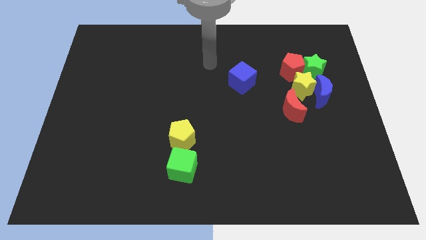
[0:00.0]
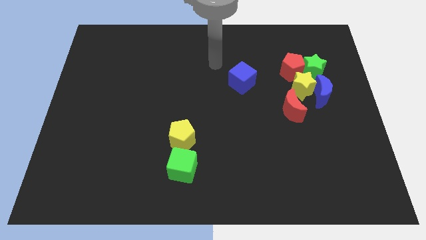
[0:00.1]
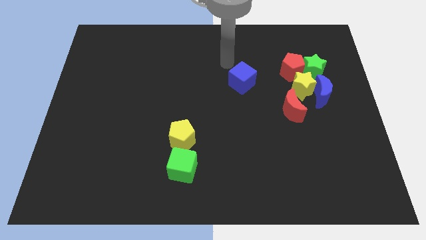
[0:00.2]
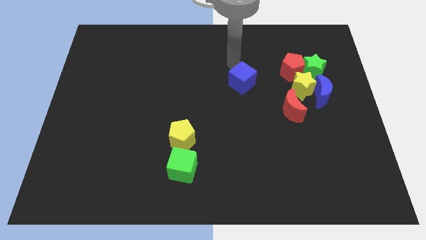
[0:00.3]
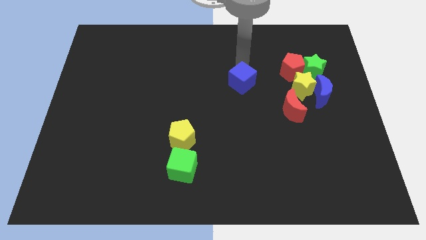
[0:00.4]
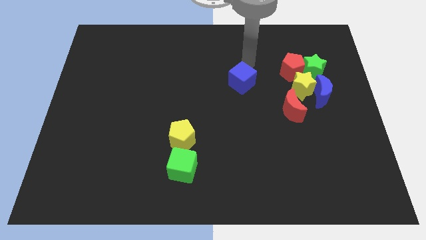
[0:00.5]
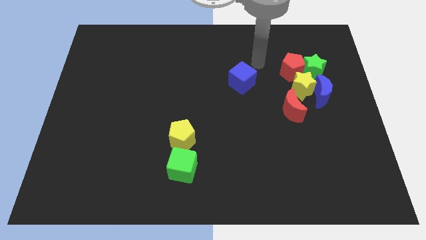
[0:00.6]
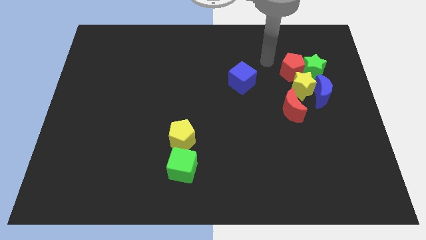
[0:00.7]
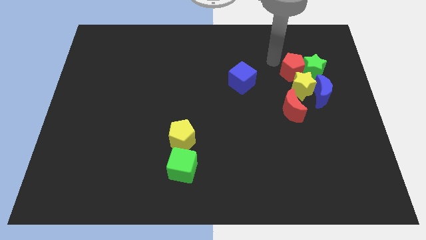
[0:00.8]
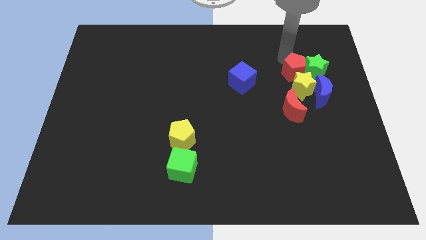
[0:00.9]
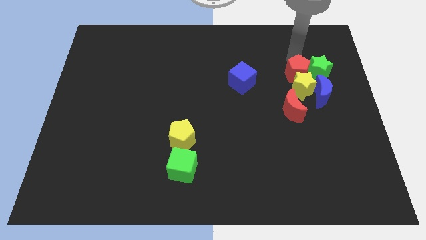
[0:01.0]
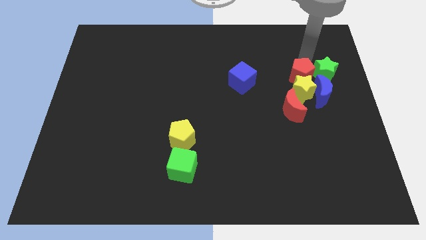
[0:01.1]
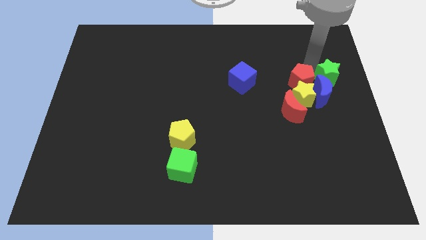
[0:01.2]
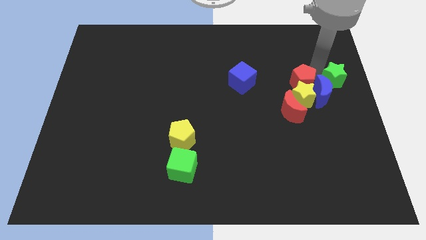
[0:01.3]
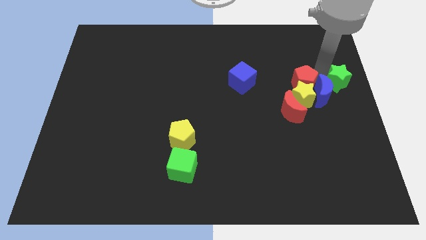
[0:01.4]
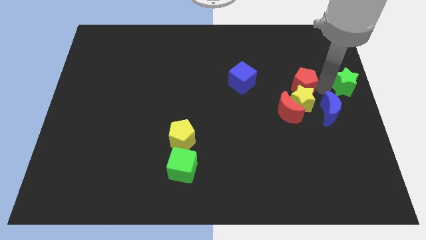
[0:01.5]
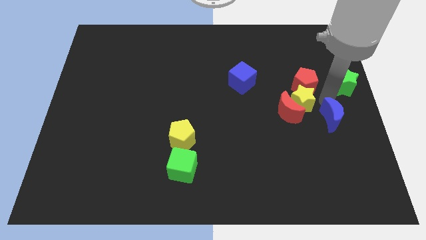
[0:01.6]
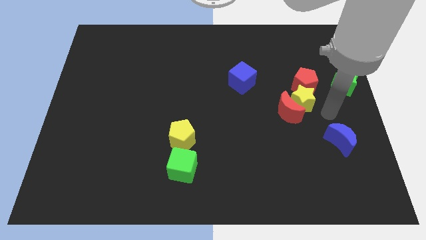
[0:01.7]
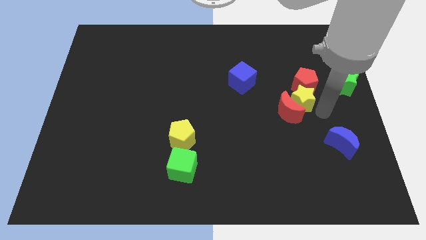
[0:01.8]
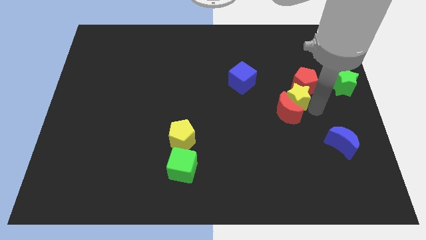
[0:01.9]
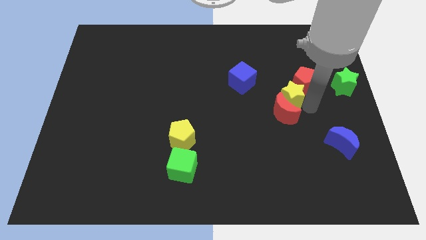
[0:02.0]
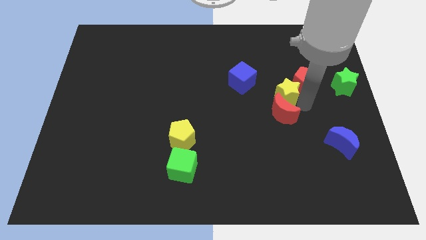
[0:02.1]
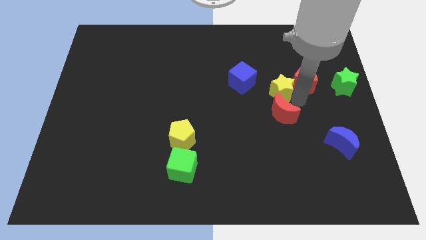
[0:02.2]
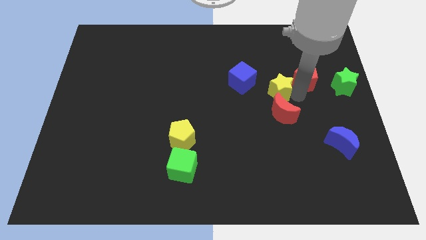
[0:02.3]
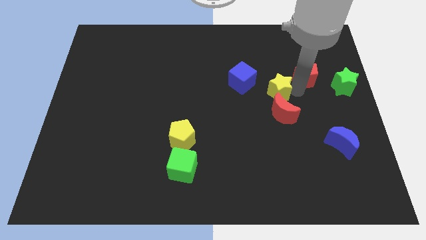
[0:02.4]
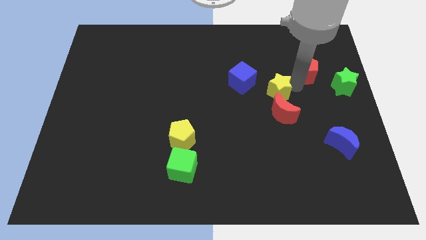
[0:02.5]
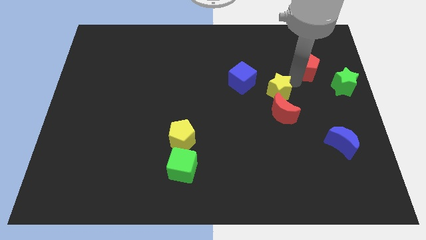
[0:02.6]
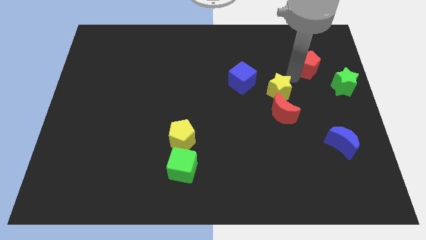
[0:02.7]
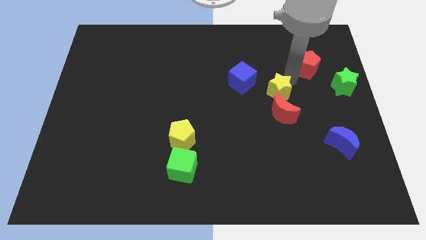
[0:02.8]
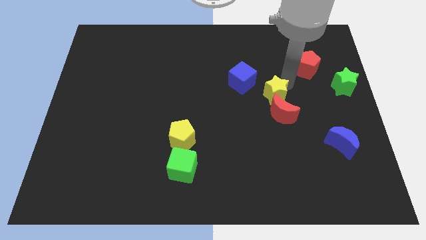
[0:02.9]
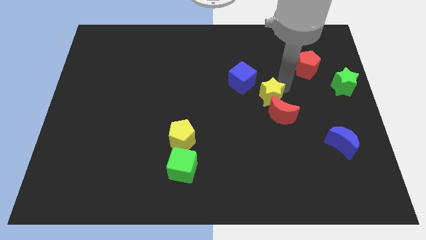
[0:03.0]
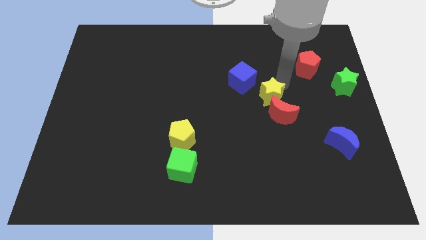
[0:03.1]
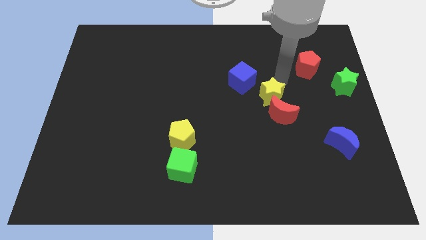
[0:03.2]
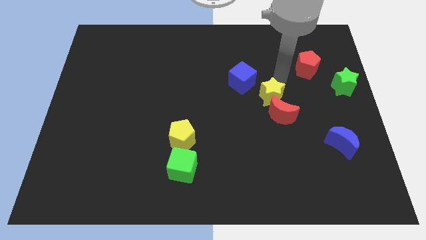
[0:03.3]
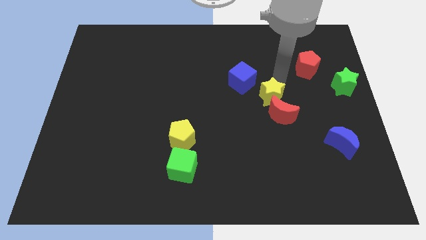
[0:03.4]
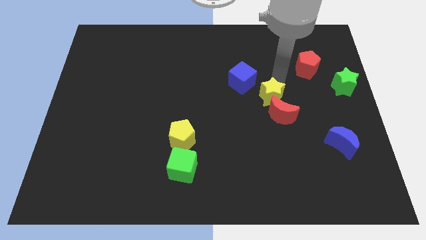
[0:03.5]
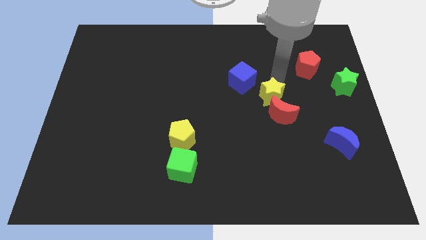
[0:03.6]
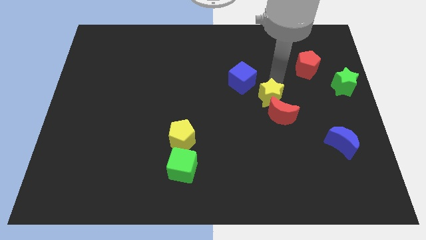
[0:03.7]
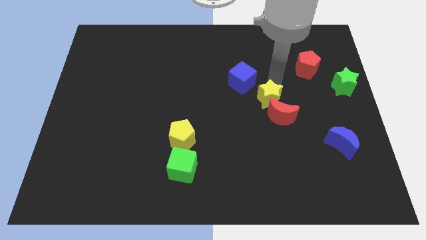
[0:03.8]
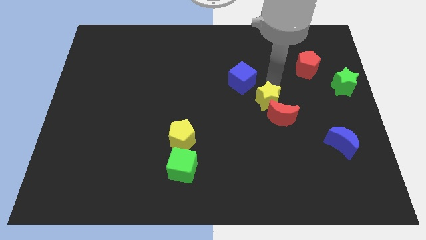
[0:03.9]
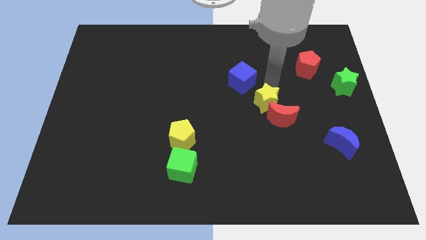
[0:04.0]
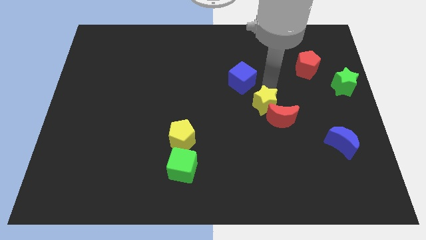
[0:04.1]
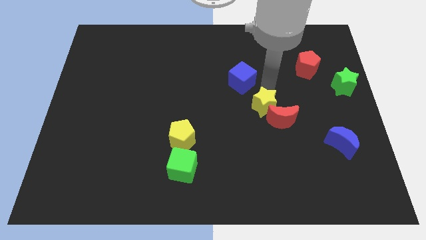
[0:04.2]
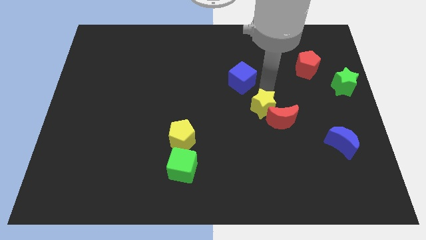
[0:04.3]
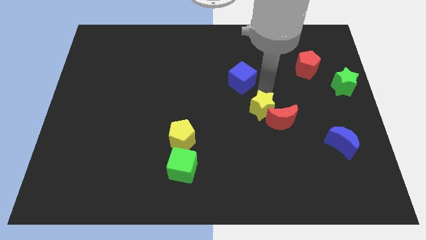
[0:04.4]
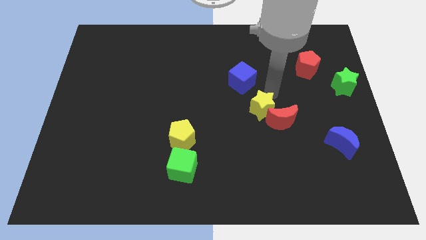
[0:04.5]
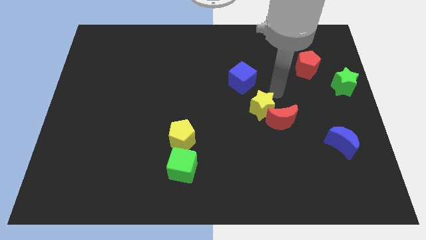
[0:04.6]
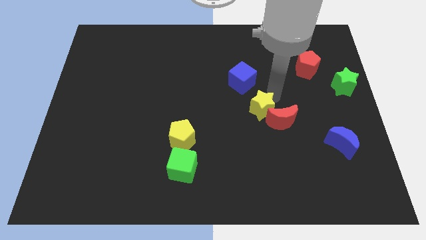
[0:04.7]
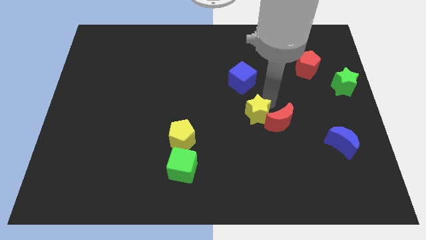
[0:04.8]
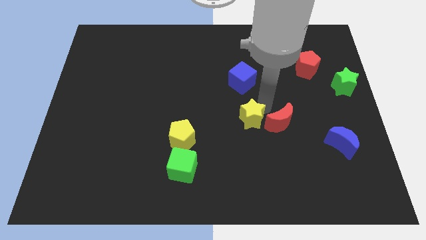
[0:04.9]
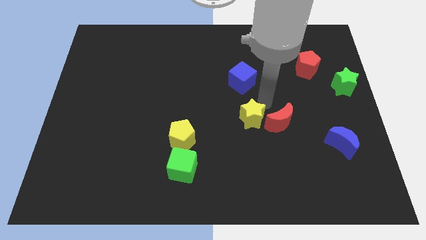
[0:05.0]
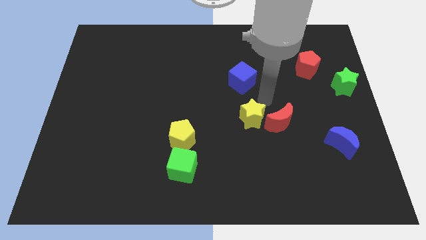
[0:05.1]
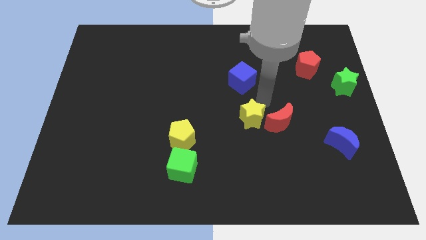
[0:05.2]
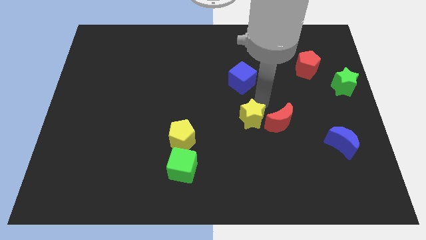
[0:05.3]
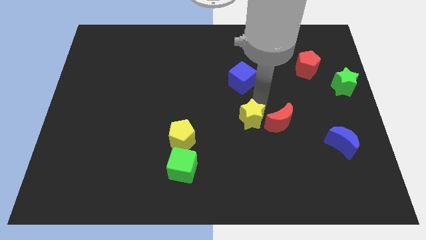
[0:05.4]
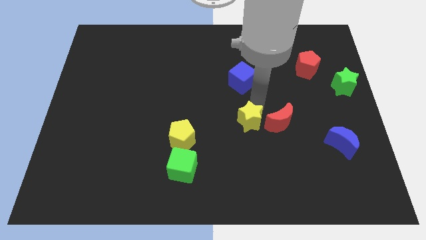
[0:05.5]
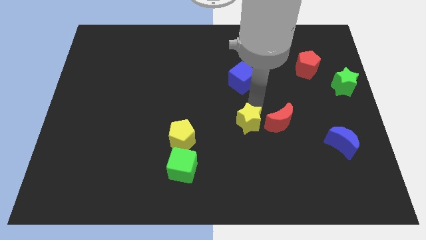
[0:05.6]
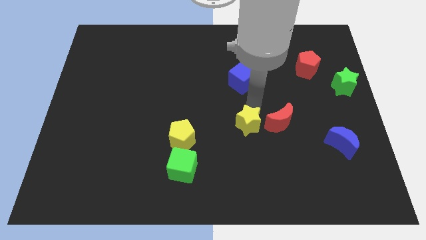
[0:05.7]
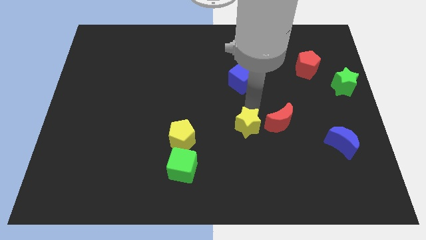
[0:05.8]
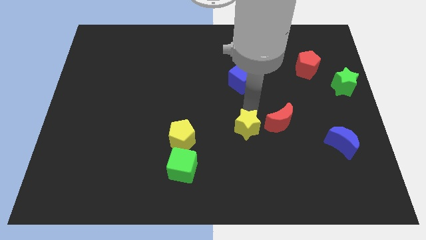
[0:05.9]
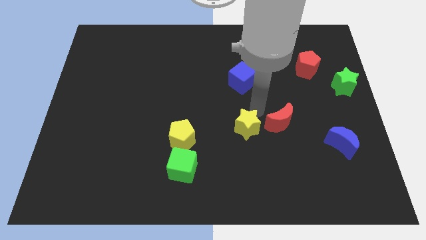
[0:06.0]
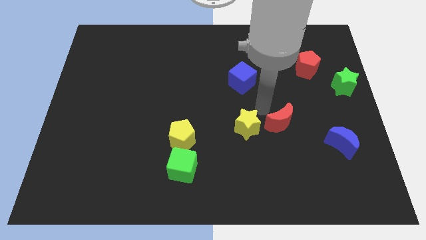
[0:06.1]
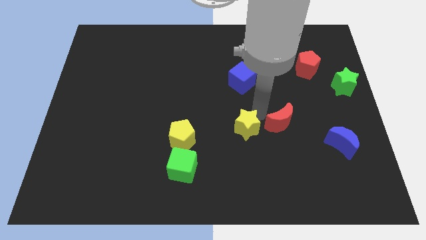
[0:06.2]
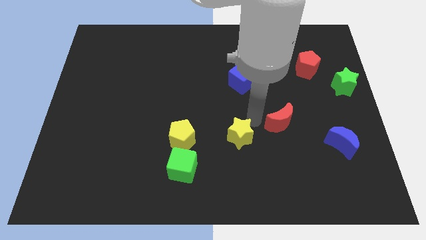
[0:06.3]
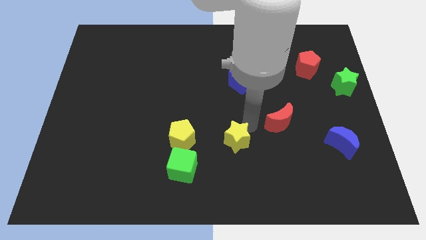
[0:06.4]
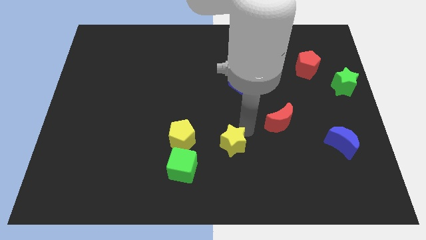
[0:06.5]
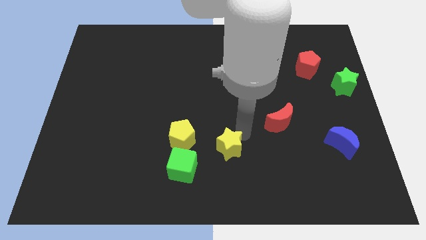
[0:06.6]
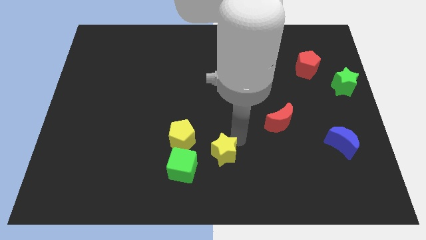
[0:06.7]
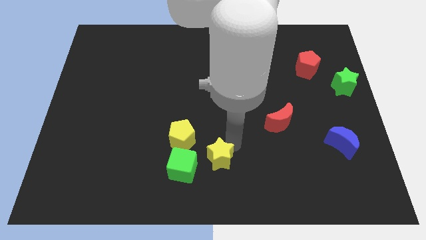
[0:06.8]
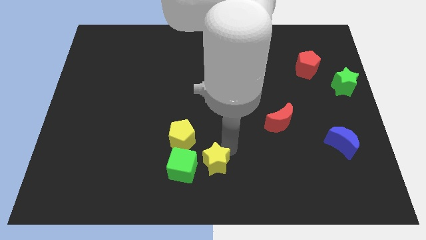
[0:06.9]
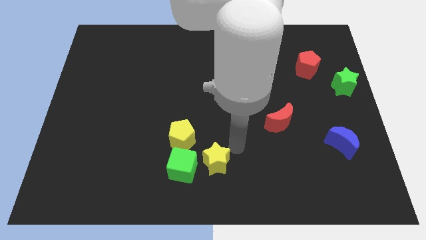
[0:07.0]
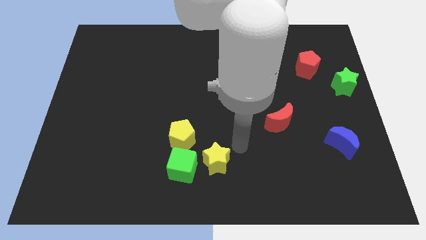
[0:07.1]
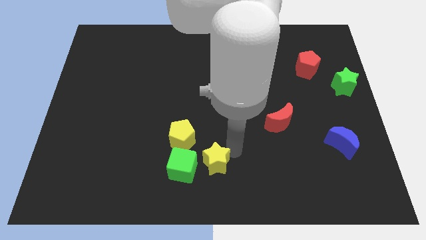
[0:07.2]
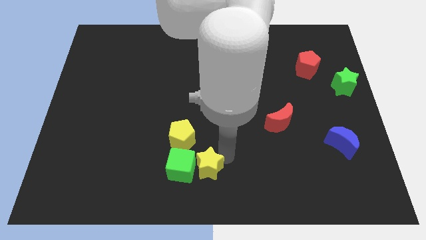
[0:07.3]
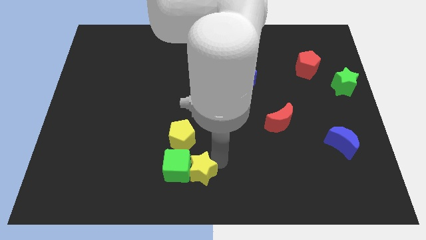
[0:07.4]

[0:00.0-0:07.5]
push the yellow star to the bottom side of the yellow pentagon

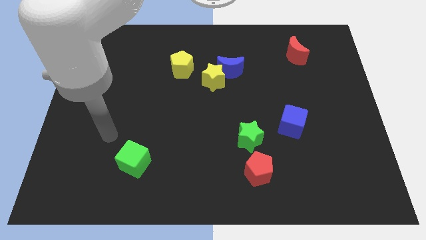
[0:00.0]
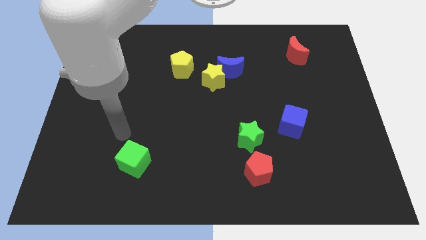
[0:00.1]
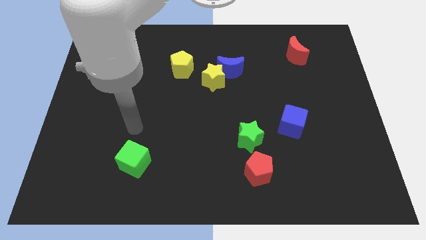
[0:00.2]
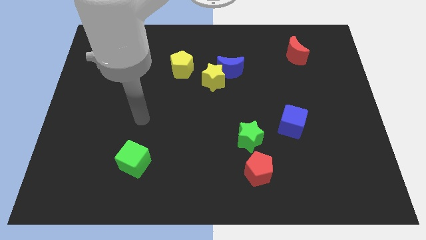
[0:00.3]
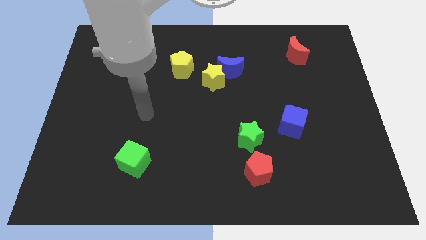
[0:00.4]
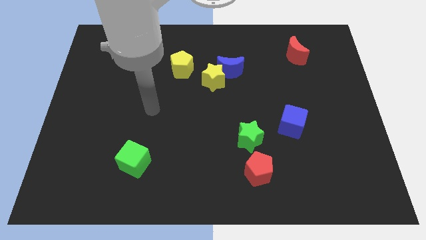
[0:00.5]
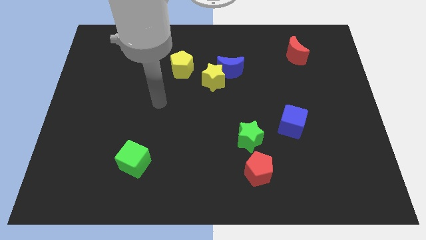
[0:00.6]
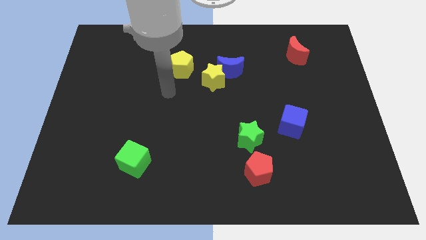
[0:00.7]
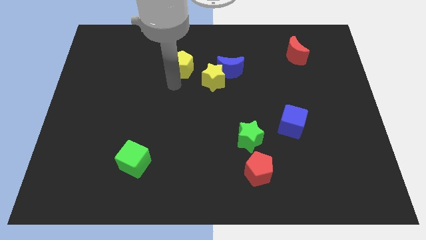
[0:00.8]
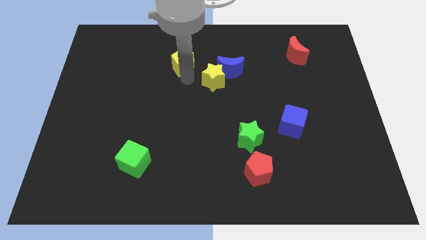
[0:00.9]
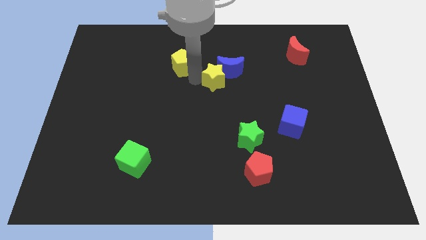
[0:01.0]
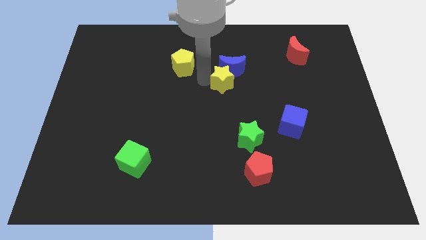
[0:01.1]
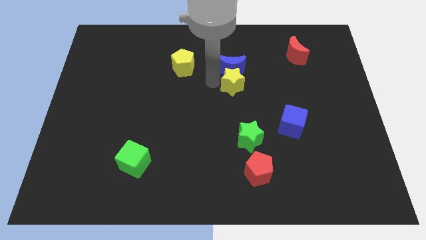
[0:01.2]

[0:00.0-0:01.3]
slide the yellow star diagonally down and to the right of the blue moon
